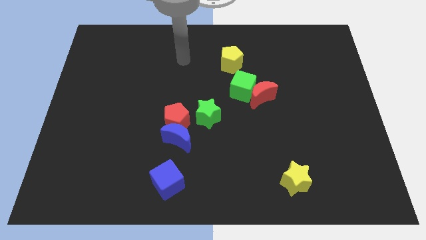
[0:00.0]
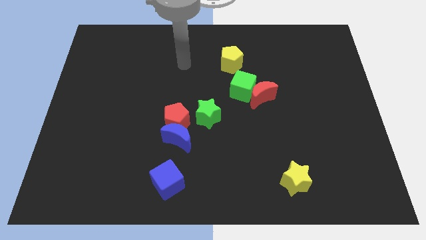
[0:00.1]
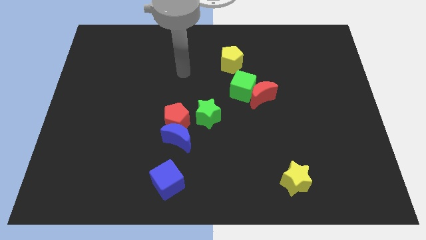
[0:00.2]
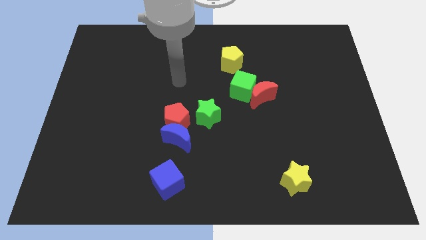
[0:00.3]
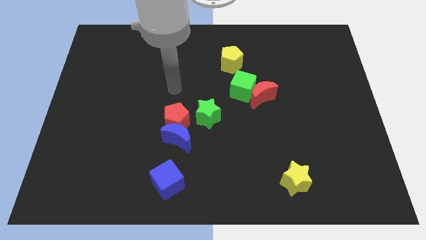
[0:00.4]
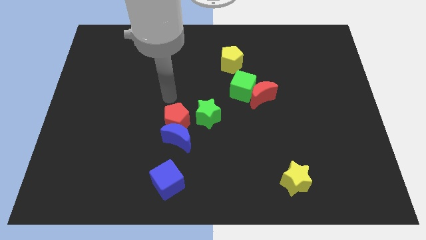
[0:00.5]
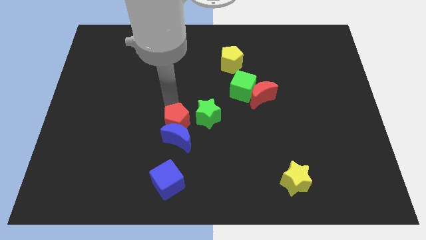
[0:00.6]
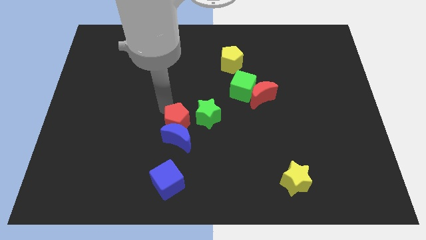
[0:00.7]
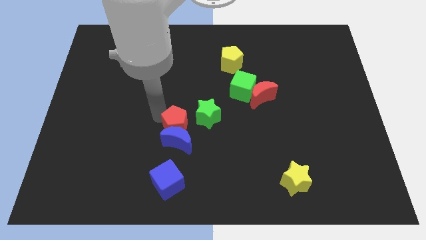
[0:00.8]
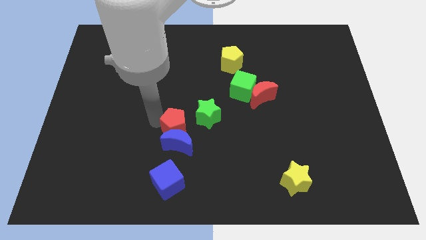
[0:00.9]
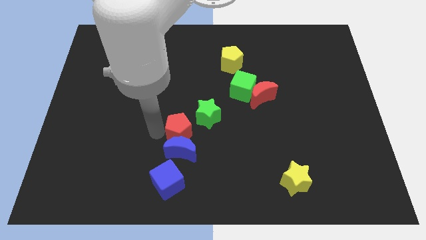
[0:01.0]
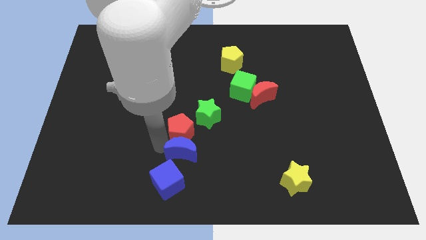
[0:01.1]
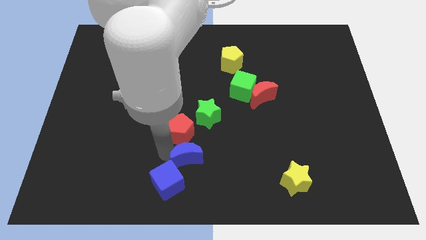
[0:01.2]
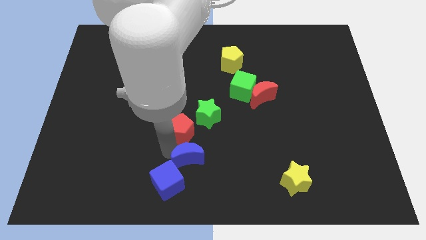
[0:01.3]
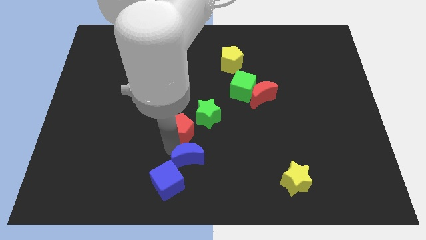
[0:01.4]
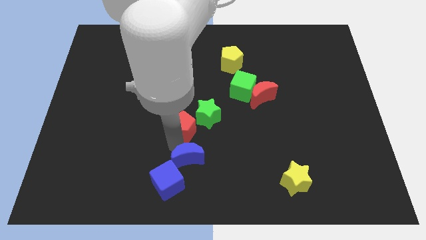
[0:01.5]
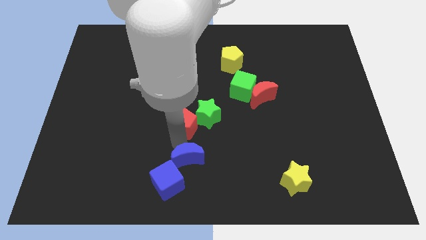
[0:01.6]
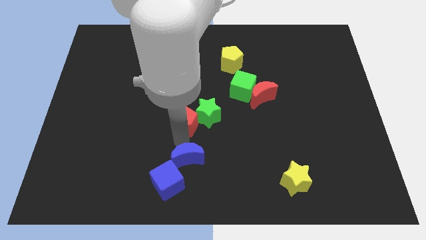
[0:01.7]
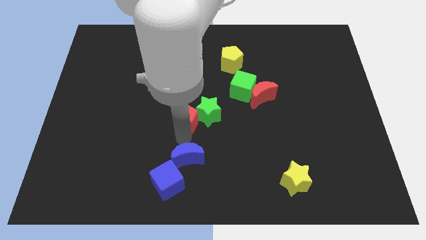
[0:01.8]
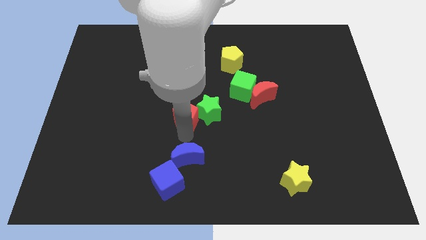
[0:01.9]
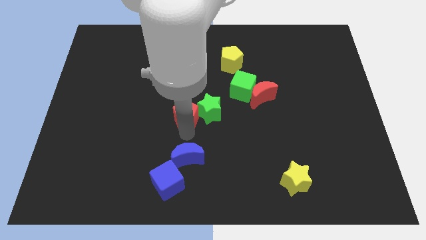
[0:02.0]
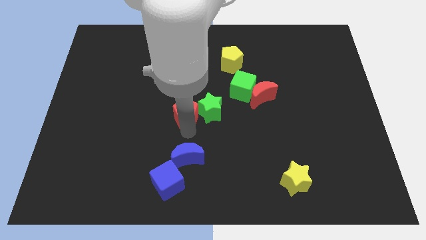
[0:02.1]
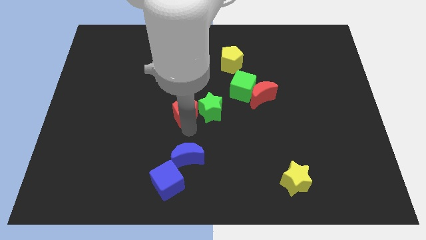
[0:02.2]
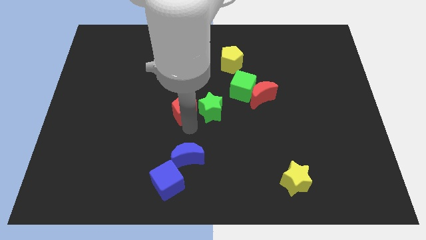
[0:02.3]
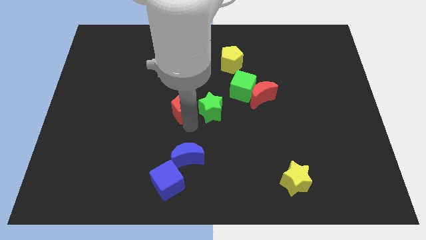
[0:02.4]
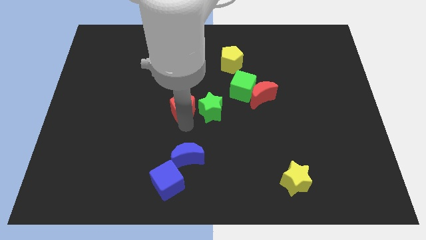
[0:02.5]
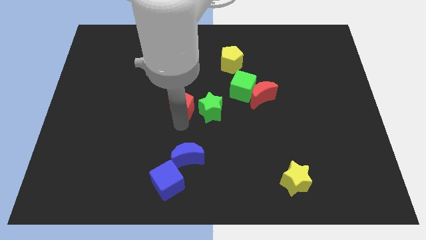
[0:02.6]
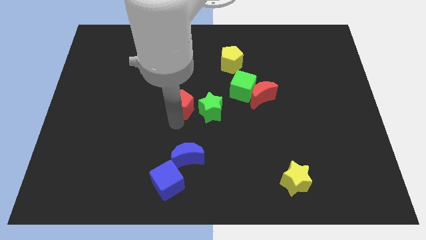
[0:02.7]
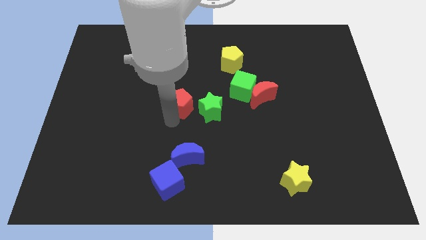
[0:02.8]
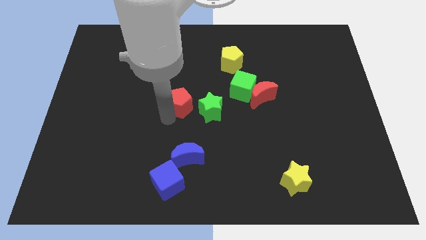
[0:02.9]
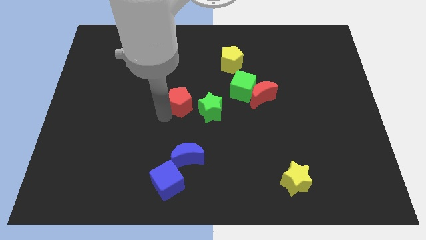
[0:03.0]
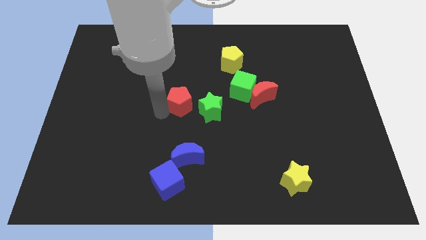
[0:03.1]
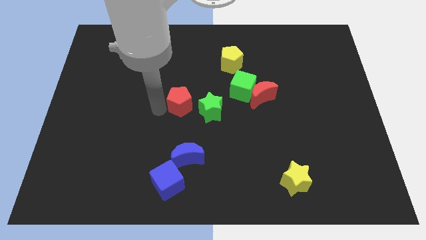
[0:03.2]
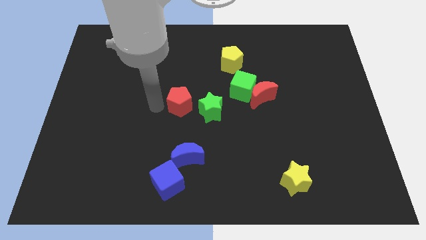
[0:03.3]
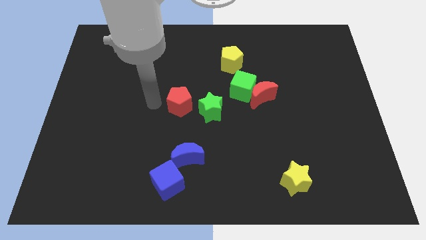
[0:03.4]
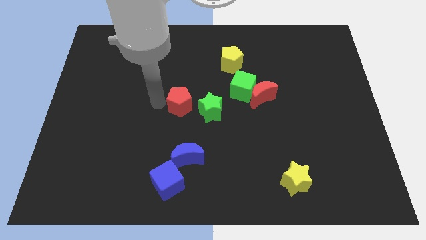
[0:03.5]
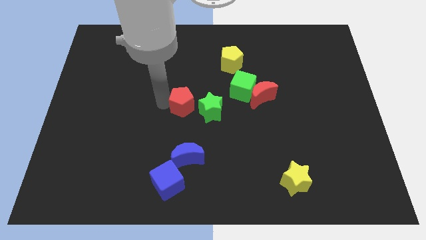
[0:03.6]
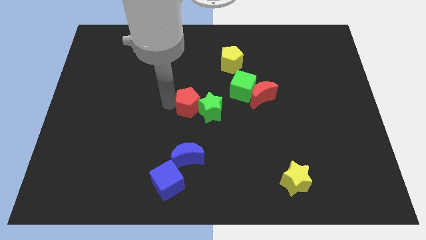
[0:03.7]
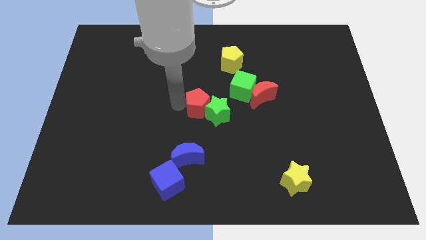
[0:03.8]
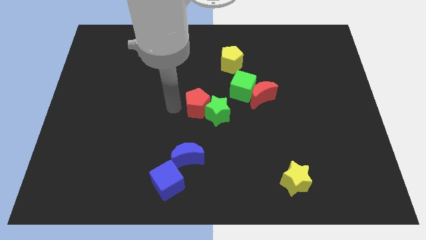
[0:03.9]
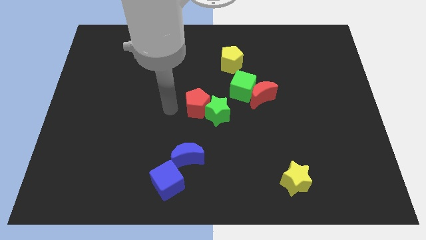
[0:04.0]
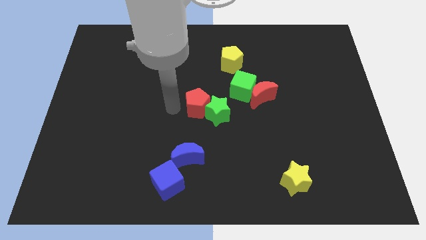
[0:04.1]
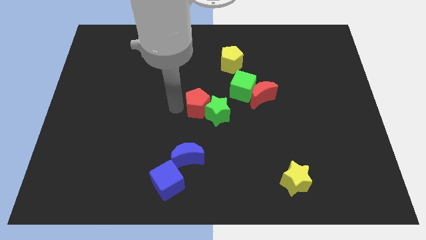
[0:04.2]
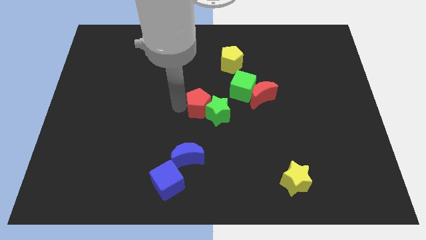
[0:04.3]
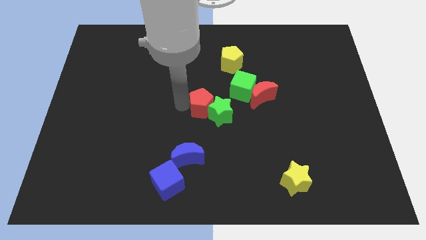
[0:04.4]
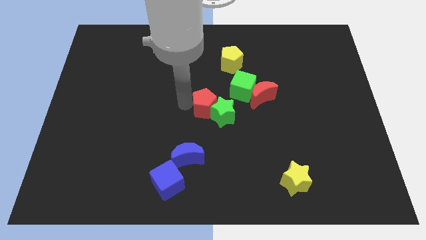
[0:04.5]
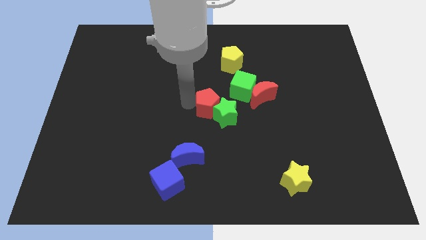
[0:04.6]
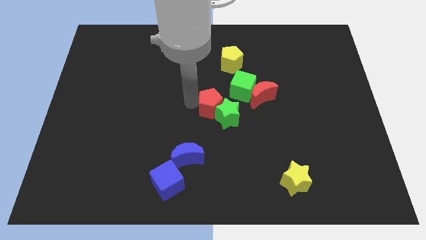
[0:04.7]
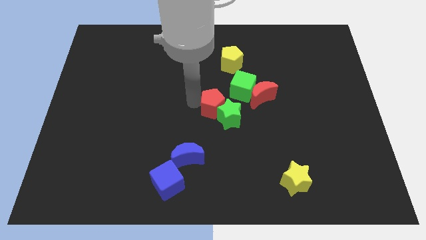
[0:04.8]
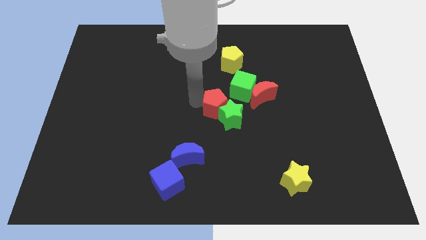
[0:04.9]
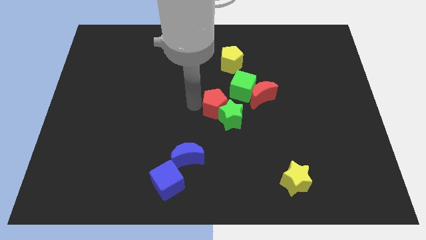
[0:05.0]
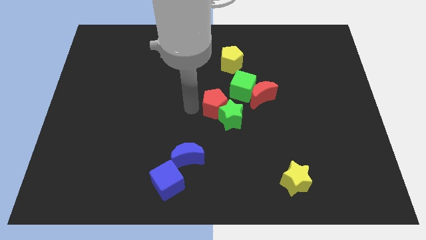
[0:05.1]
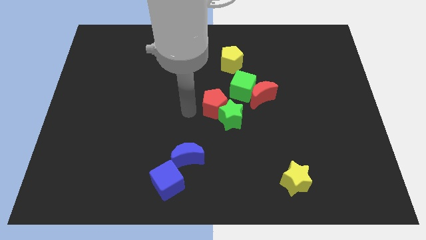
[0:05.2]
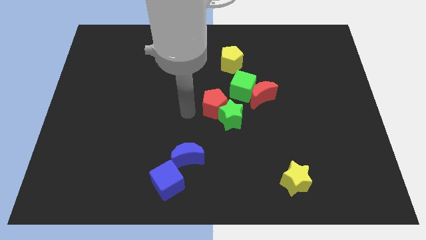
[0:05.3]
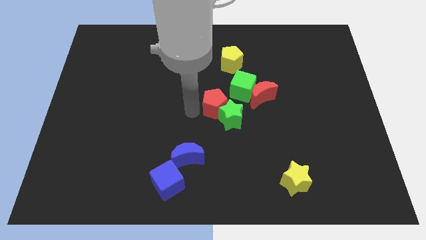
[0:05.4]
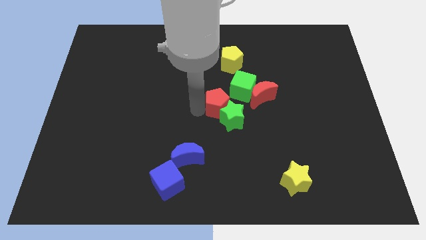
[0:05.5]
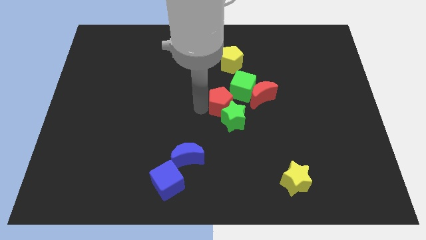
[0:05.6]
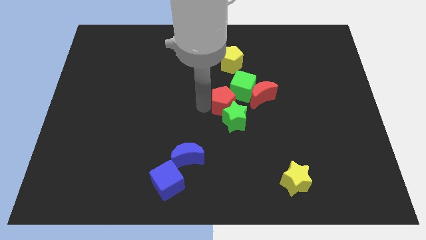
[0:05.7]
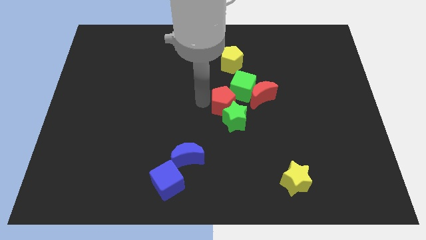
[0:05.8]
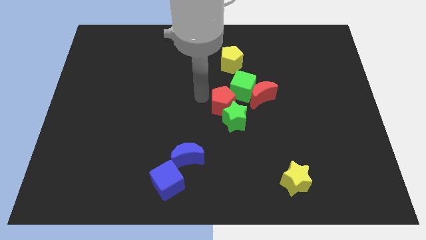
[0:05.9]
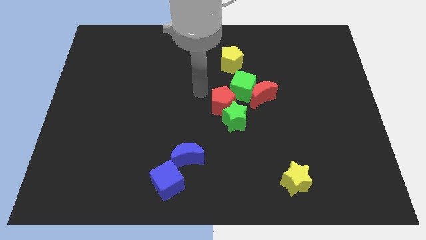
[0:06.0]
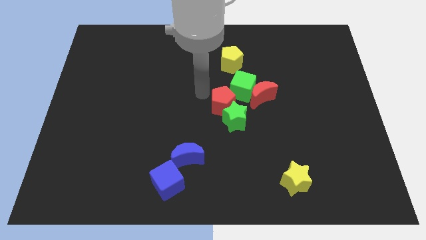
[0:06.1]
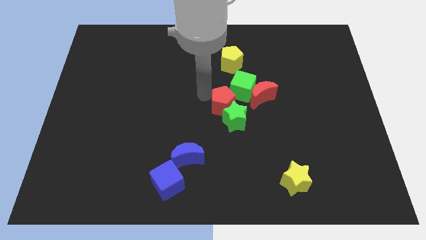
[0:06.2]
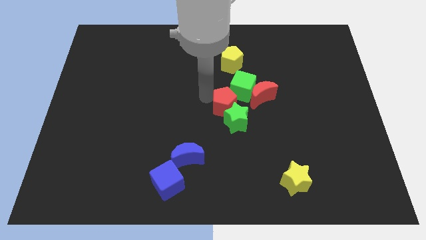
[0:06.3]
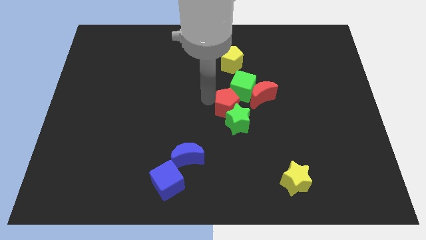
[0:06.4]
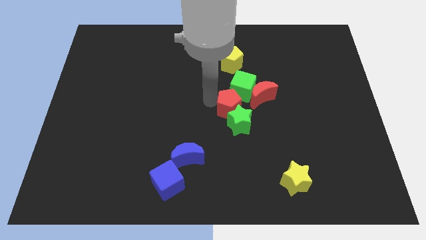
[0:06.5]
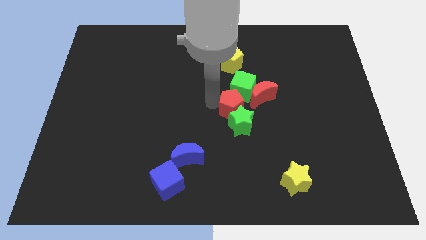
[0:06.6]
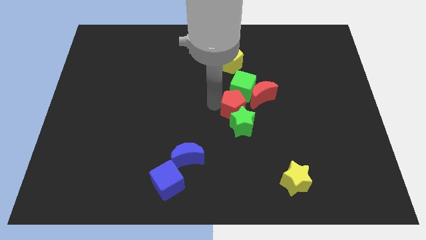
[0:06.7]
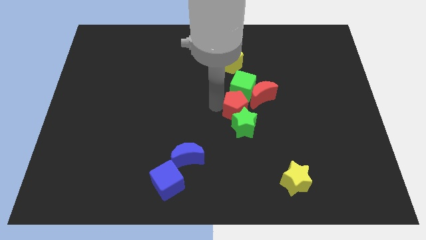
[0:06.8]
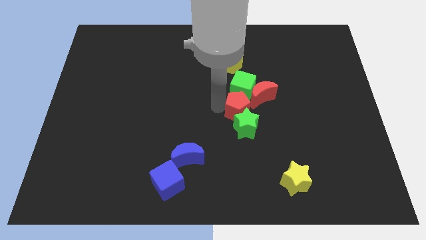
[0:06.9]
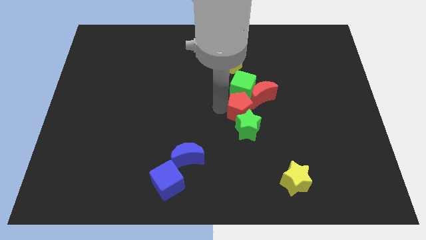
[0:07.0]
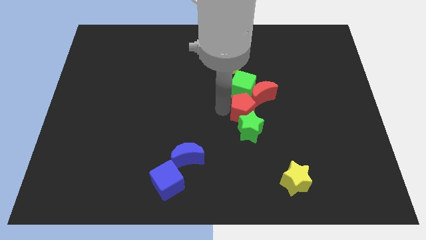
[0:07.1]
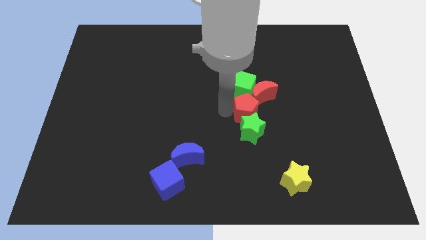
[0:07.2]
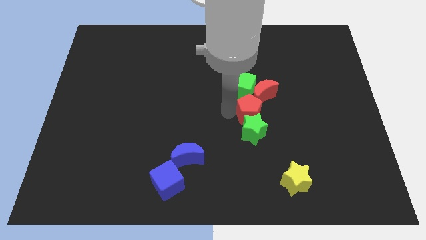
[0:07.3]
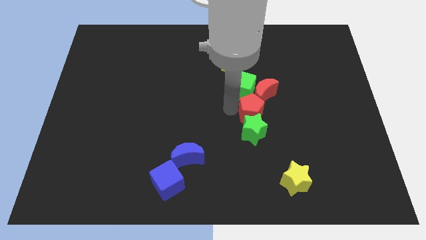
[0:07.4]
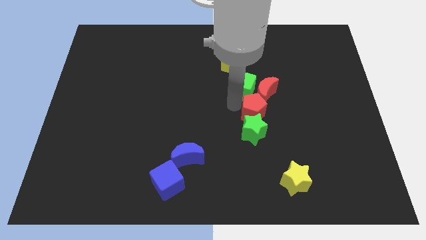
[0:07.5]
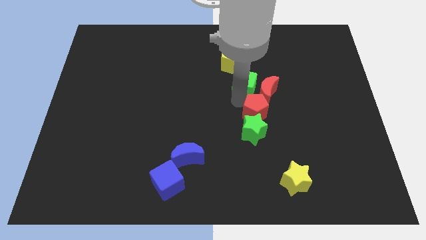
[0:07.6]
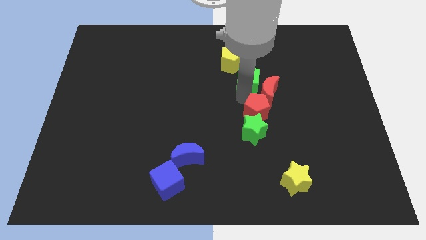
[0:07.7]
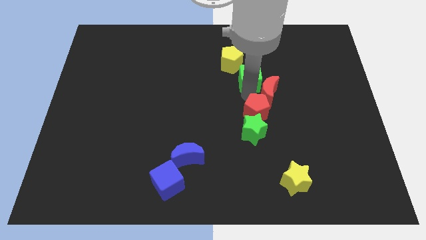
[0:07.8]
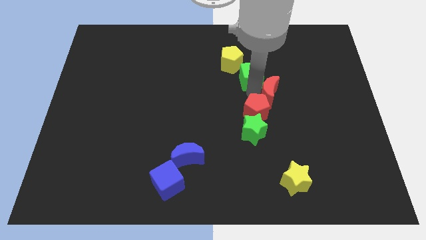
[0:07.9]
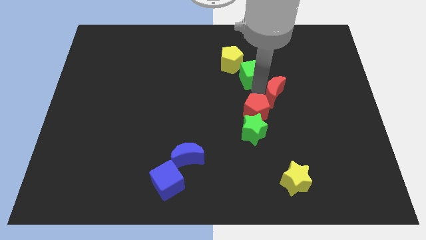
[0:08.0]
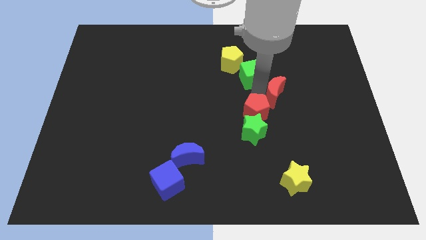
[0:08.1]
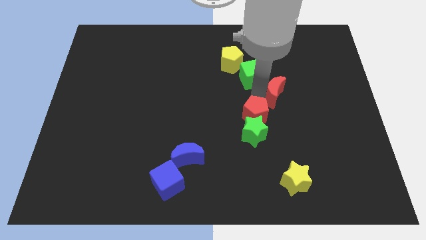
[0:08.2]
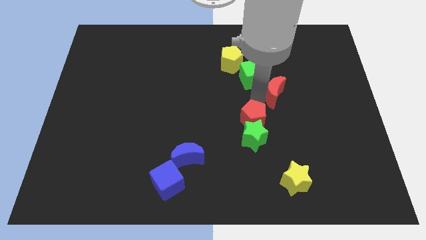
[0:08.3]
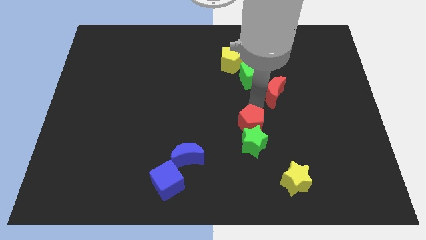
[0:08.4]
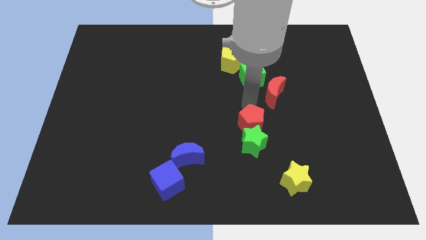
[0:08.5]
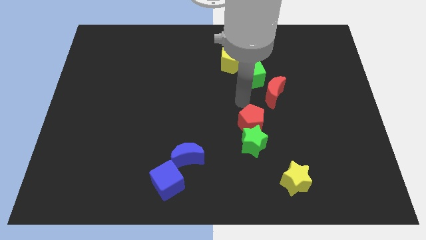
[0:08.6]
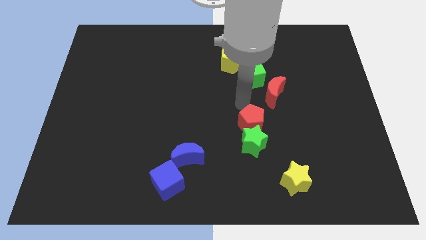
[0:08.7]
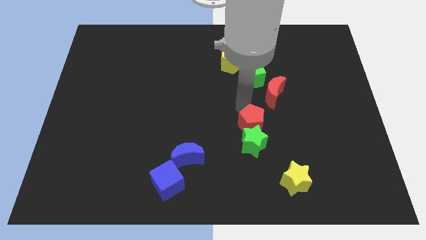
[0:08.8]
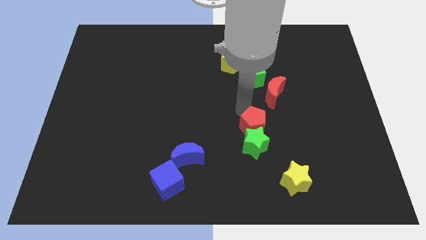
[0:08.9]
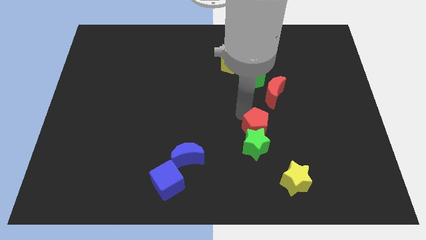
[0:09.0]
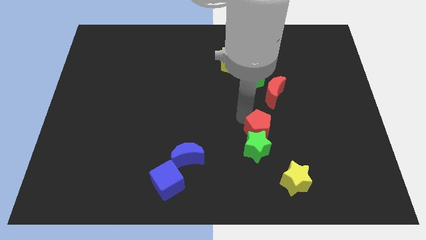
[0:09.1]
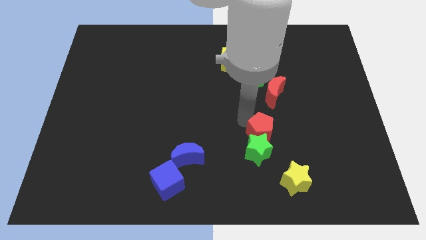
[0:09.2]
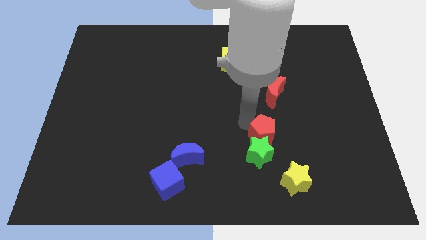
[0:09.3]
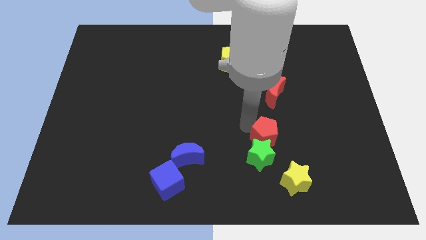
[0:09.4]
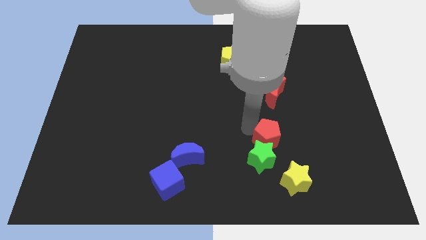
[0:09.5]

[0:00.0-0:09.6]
push the red pentagon to the top left of the yellow star
